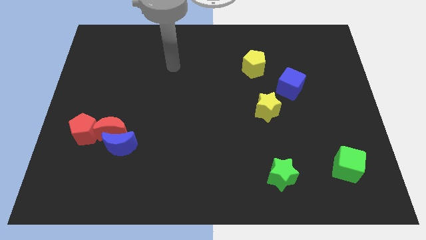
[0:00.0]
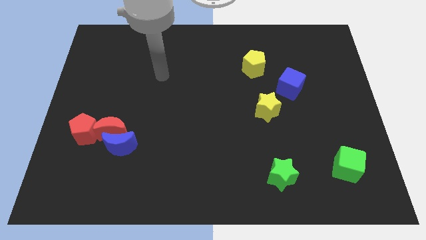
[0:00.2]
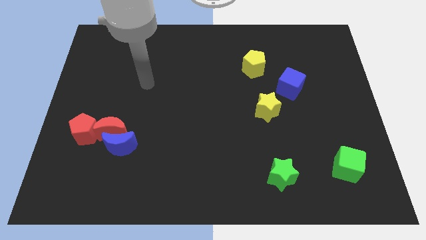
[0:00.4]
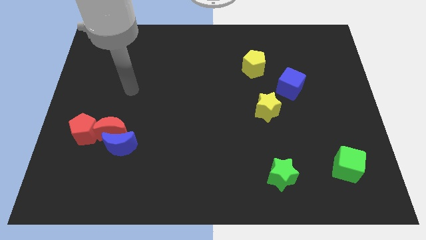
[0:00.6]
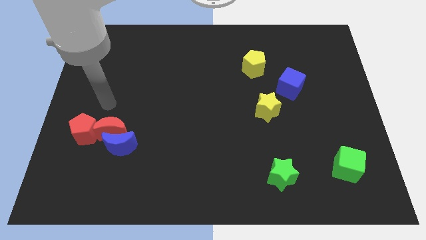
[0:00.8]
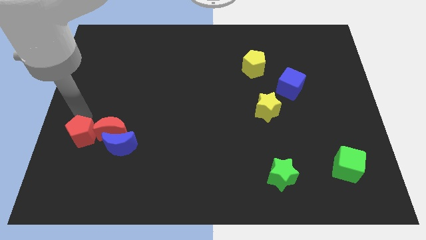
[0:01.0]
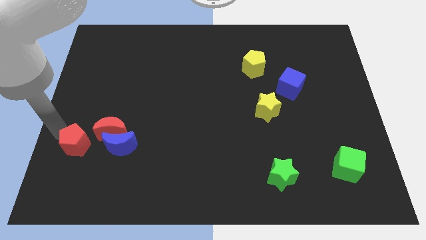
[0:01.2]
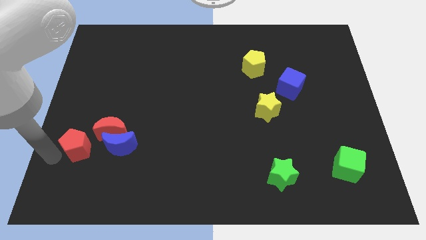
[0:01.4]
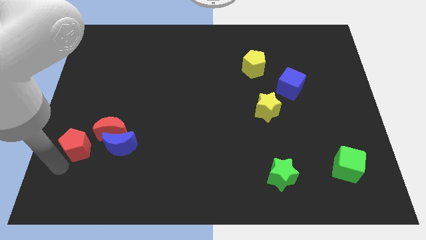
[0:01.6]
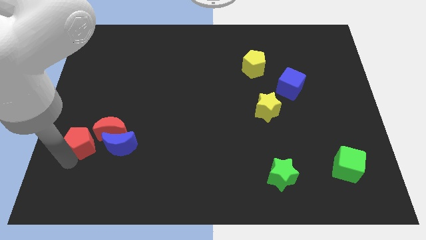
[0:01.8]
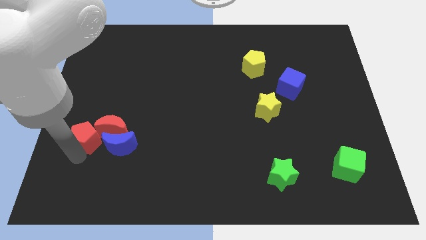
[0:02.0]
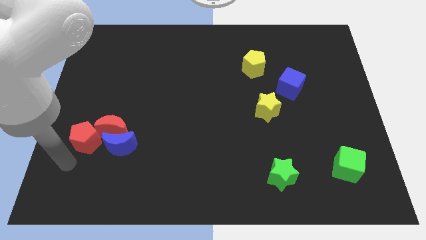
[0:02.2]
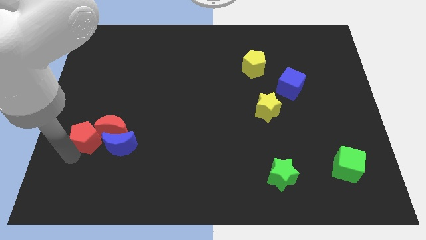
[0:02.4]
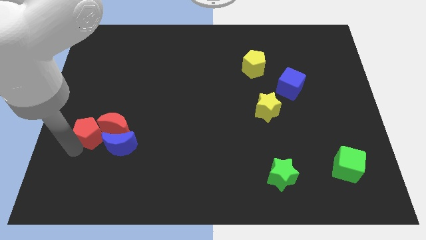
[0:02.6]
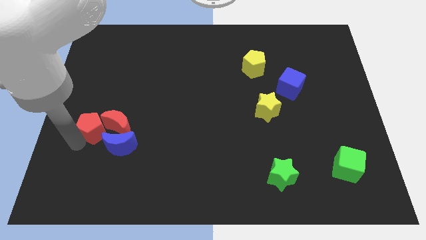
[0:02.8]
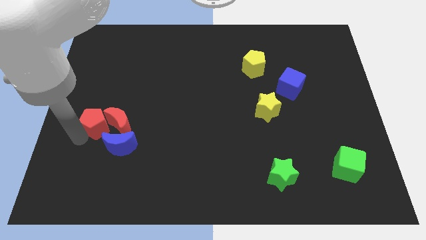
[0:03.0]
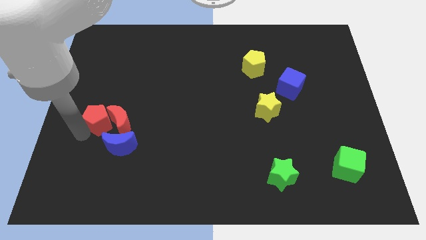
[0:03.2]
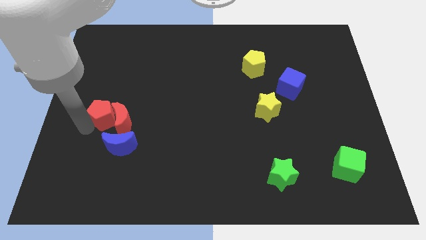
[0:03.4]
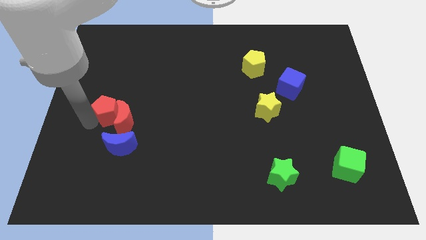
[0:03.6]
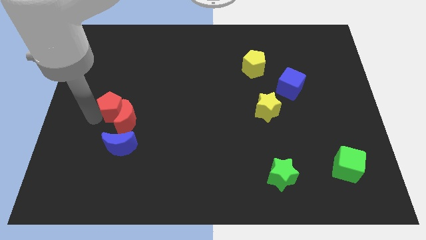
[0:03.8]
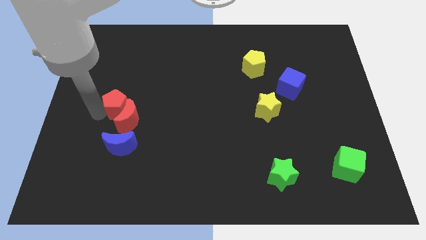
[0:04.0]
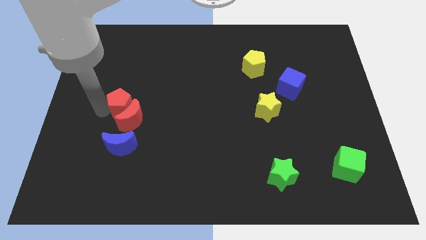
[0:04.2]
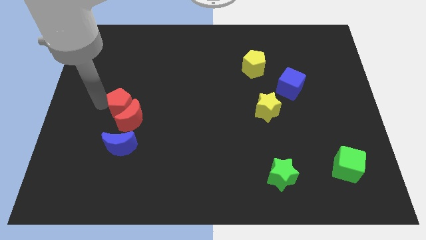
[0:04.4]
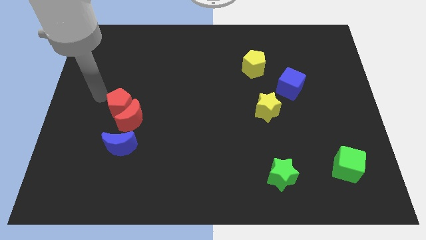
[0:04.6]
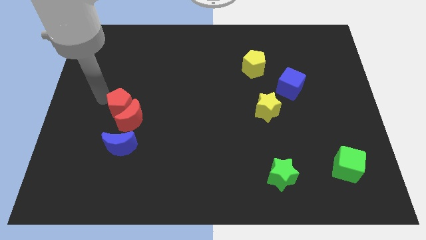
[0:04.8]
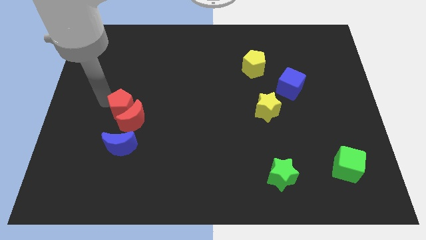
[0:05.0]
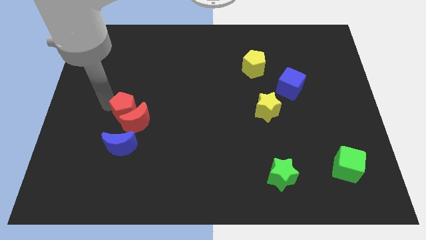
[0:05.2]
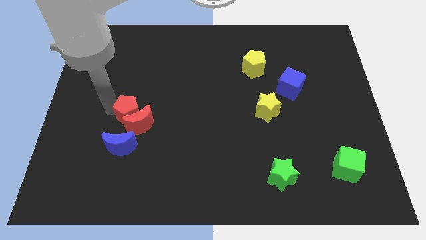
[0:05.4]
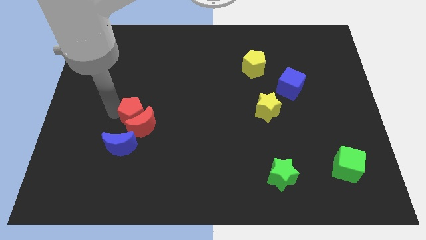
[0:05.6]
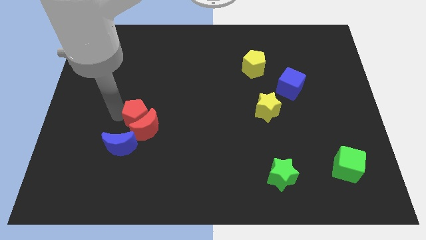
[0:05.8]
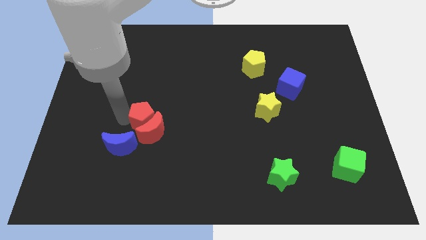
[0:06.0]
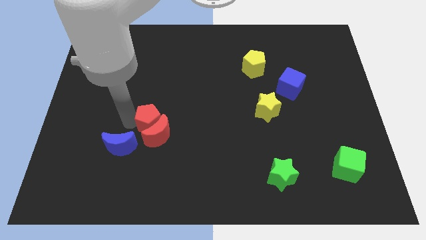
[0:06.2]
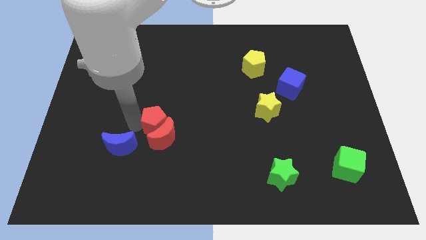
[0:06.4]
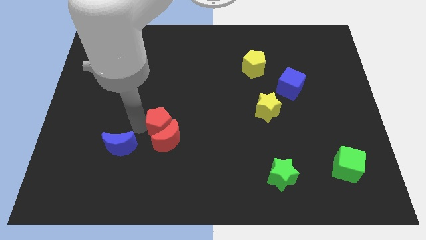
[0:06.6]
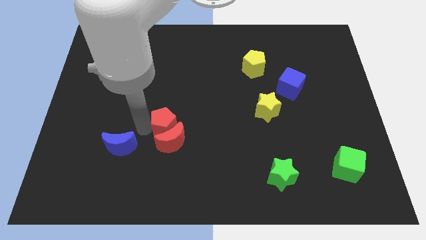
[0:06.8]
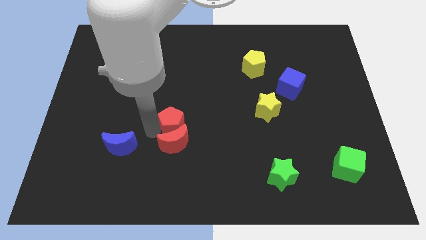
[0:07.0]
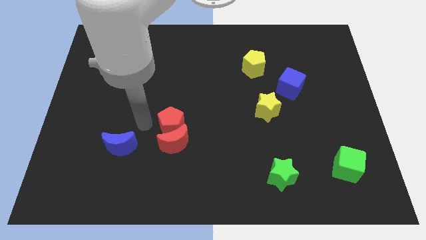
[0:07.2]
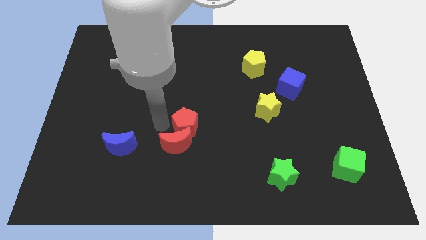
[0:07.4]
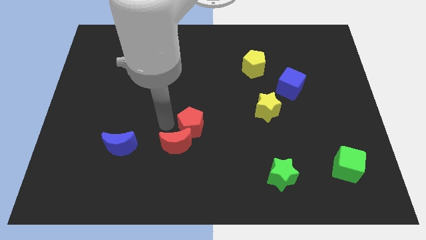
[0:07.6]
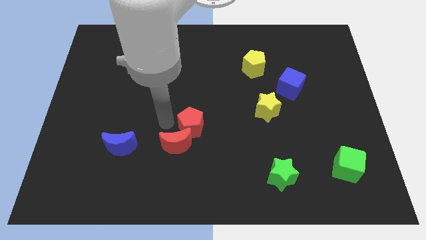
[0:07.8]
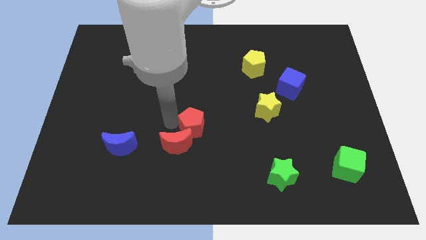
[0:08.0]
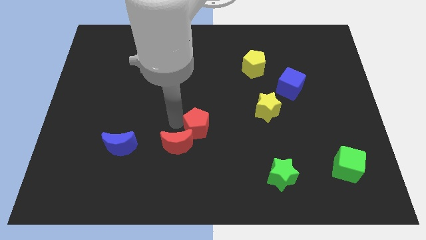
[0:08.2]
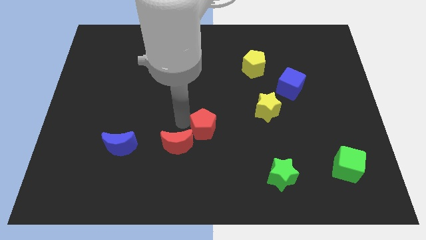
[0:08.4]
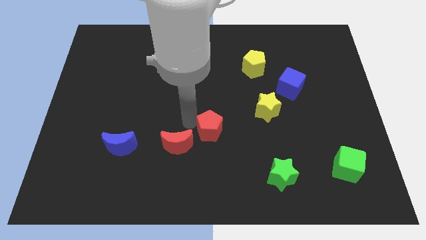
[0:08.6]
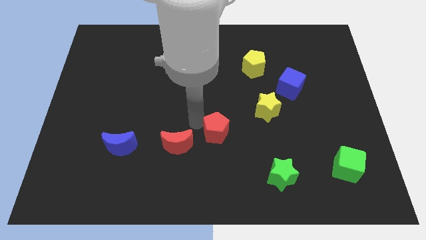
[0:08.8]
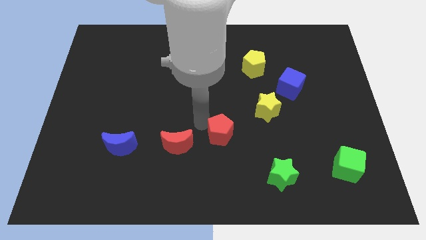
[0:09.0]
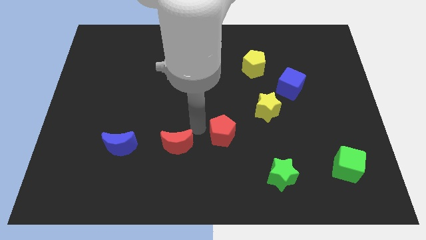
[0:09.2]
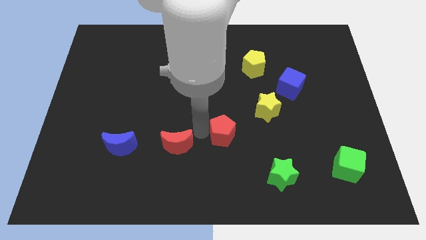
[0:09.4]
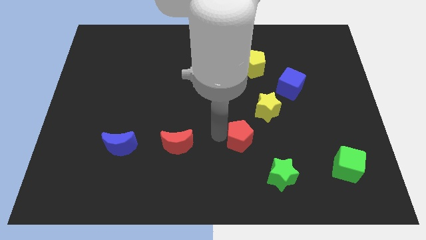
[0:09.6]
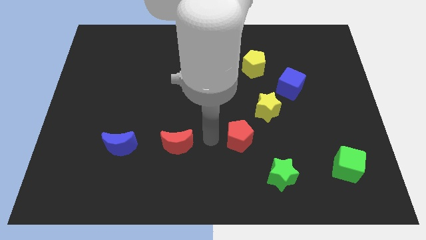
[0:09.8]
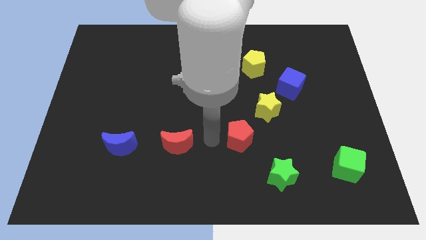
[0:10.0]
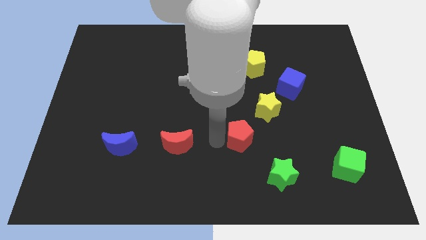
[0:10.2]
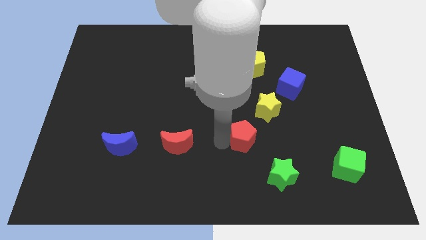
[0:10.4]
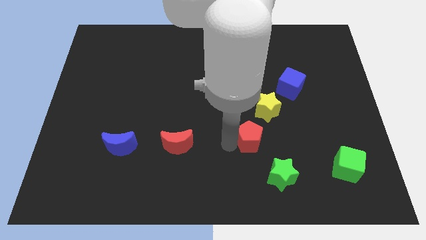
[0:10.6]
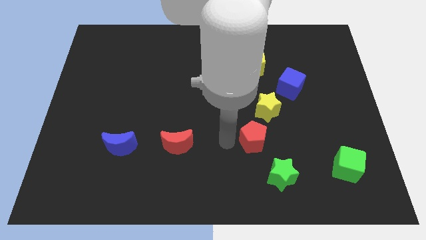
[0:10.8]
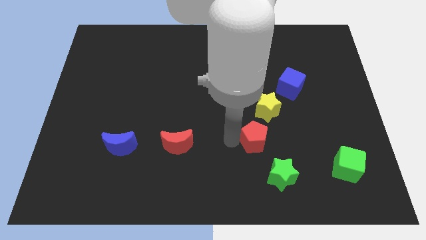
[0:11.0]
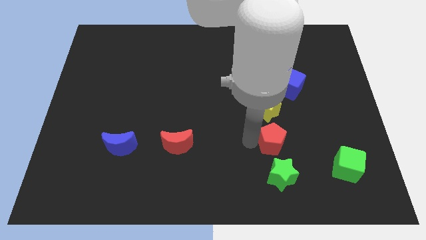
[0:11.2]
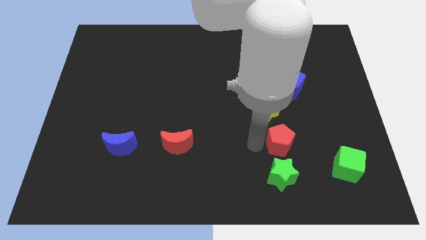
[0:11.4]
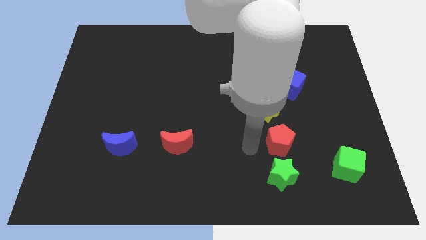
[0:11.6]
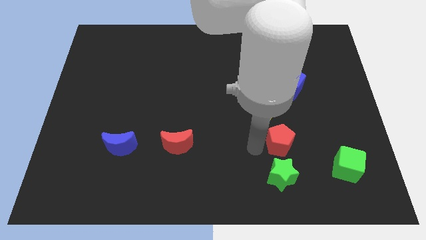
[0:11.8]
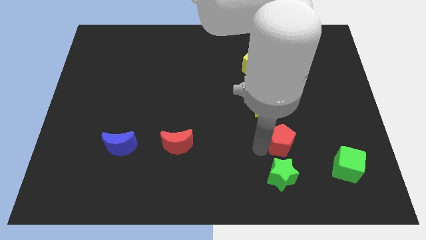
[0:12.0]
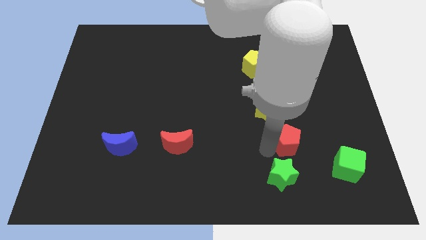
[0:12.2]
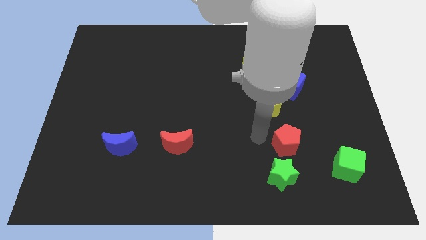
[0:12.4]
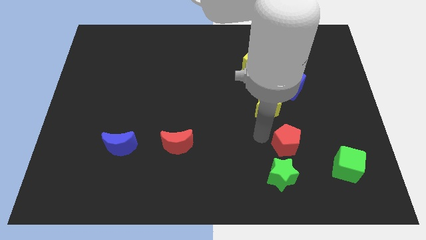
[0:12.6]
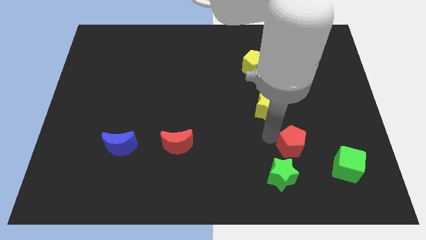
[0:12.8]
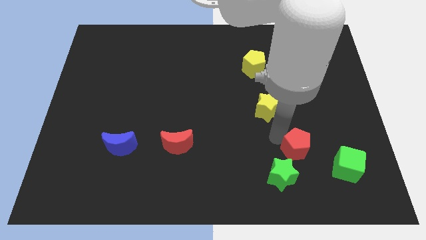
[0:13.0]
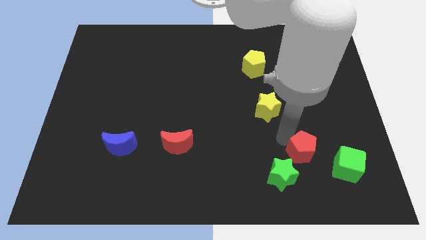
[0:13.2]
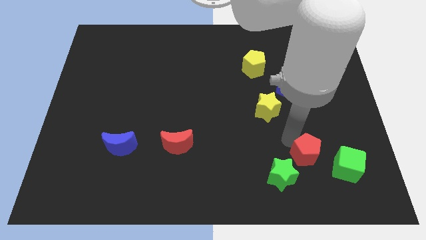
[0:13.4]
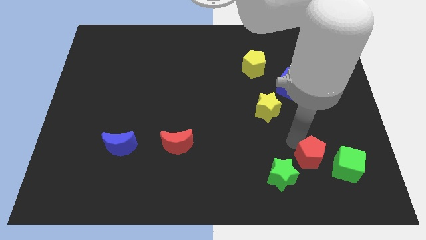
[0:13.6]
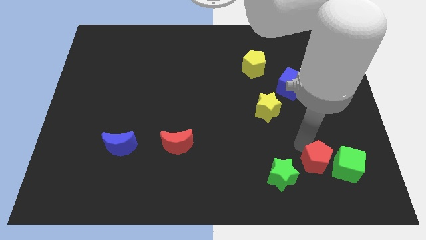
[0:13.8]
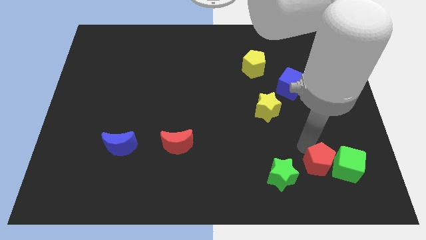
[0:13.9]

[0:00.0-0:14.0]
slide the red pentagon to the green cube

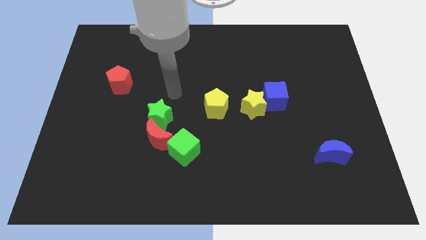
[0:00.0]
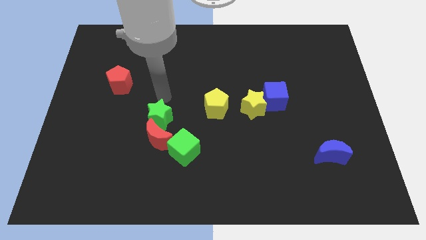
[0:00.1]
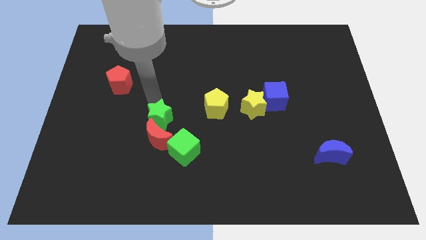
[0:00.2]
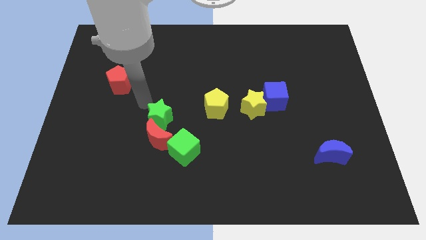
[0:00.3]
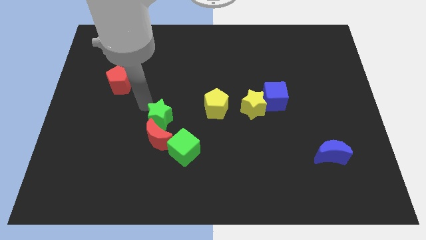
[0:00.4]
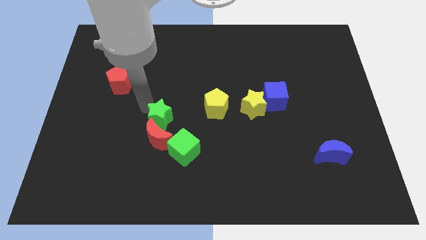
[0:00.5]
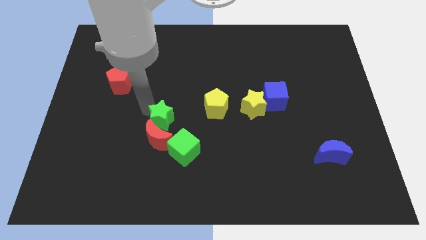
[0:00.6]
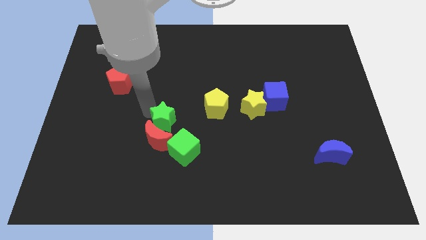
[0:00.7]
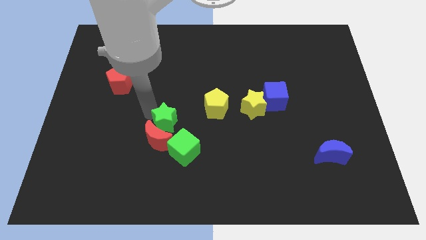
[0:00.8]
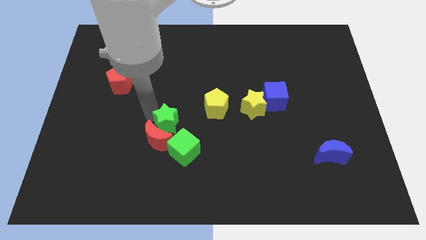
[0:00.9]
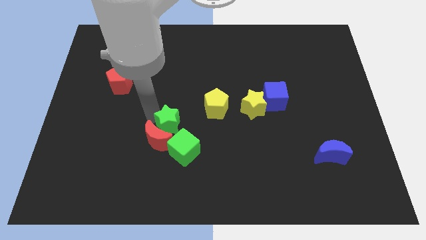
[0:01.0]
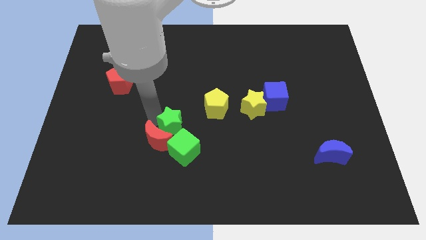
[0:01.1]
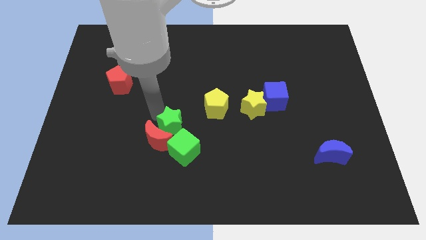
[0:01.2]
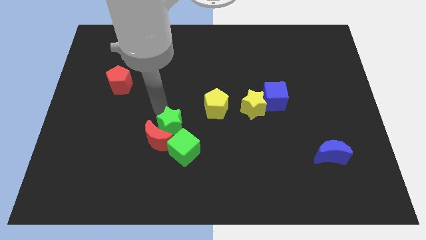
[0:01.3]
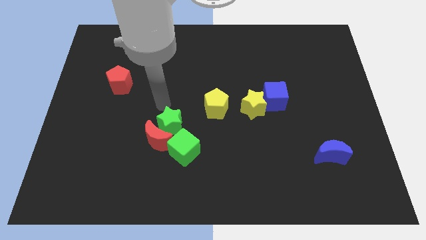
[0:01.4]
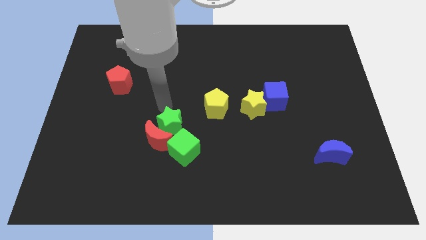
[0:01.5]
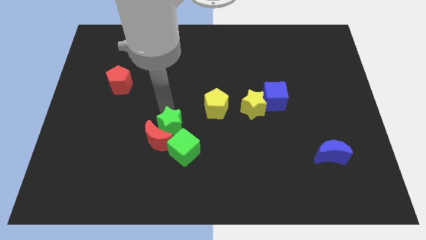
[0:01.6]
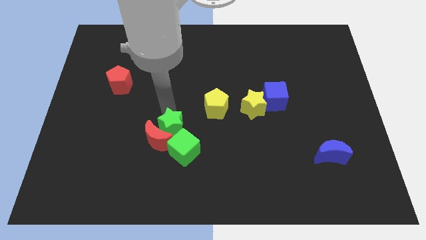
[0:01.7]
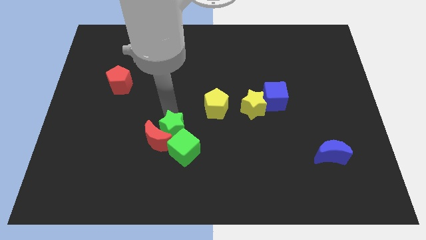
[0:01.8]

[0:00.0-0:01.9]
move the green star to the green cube
